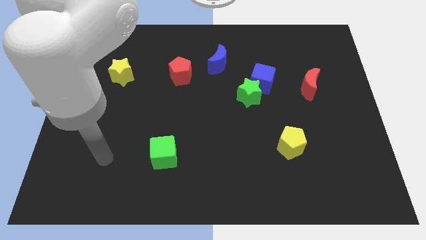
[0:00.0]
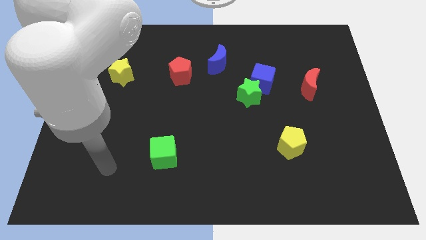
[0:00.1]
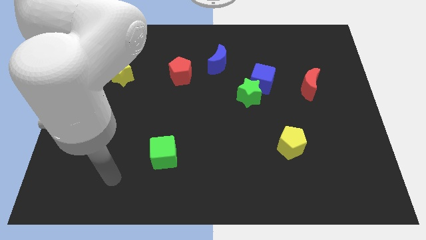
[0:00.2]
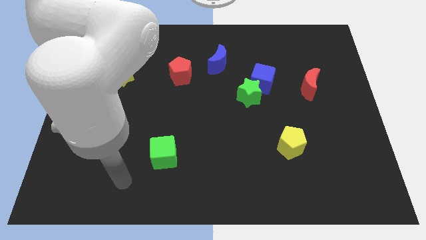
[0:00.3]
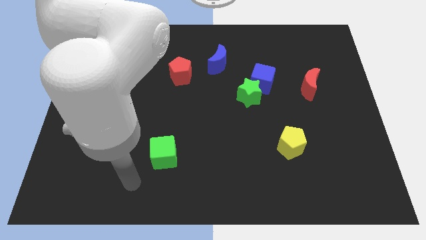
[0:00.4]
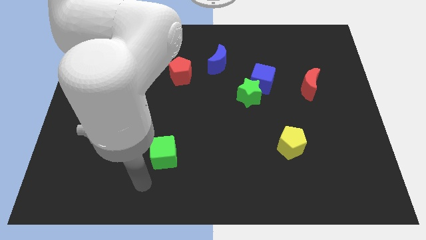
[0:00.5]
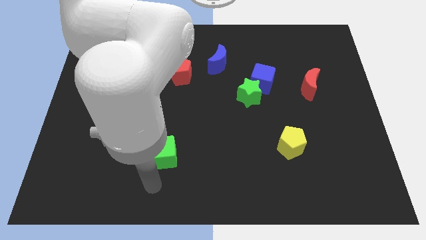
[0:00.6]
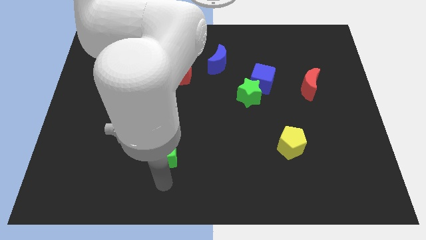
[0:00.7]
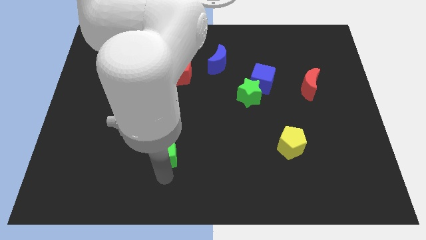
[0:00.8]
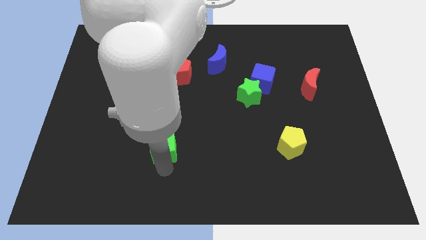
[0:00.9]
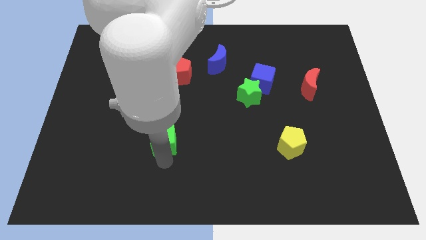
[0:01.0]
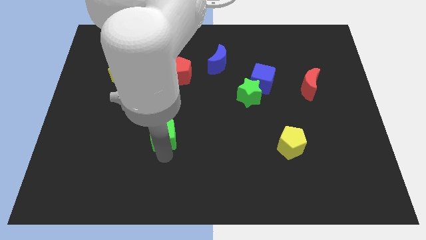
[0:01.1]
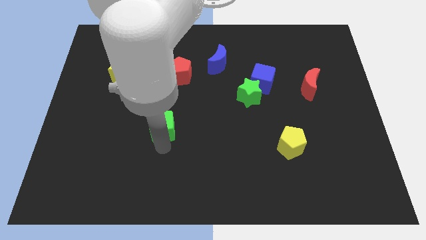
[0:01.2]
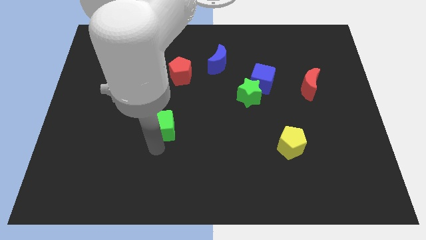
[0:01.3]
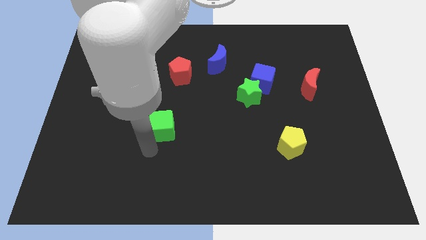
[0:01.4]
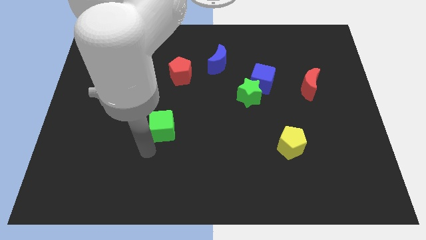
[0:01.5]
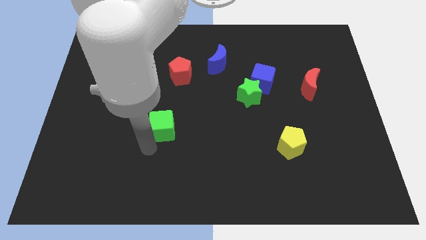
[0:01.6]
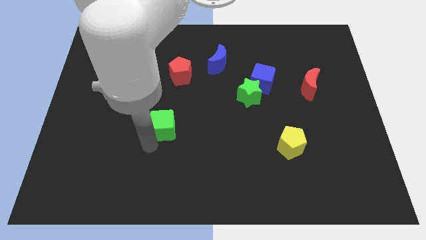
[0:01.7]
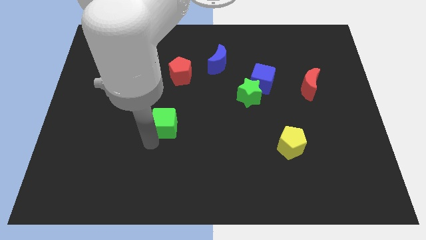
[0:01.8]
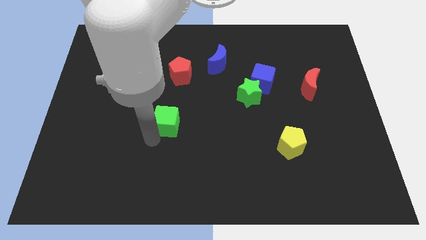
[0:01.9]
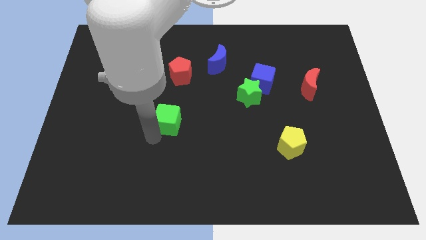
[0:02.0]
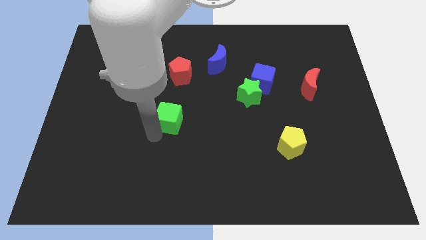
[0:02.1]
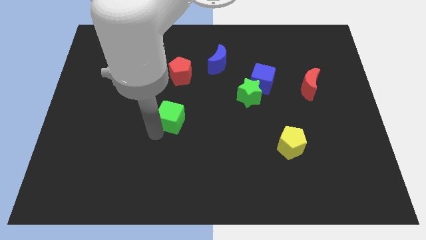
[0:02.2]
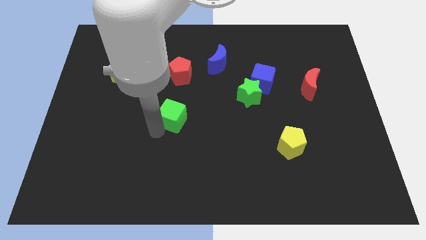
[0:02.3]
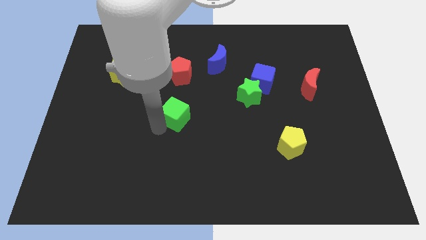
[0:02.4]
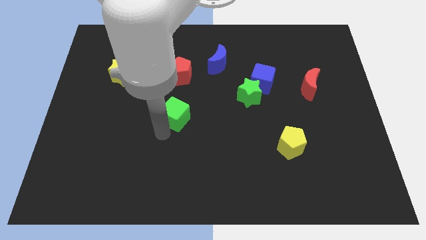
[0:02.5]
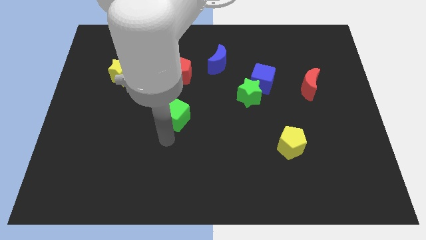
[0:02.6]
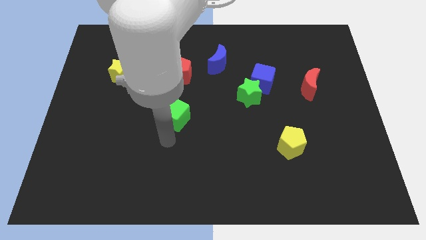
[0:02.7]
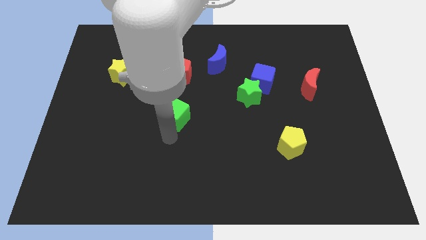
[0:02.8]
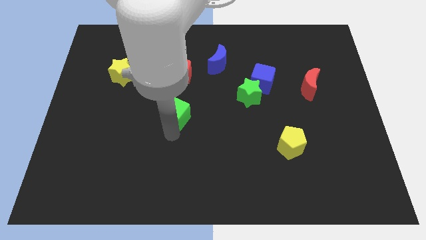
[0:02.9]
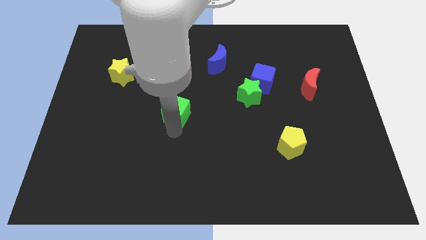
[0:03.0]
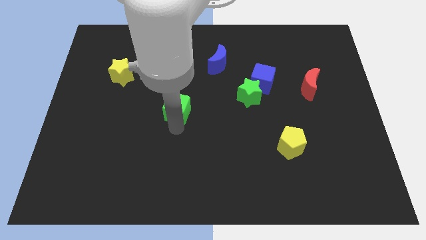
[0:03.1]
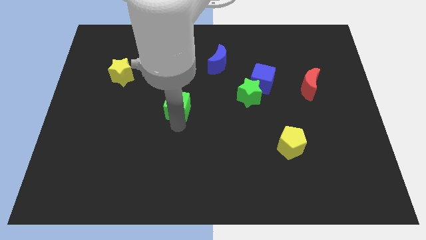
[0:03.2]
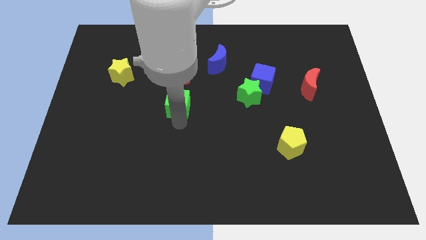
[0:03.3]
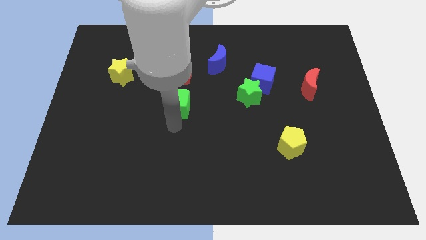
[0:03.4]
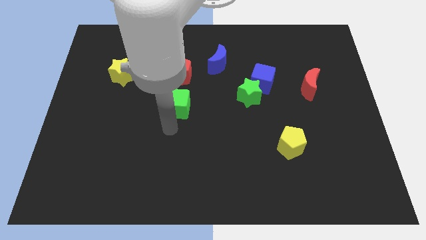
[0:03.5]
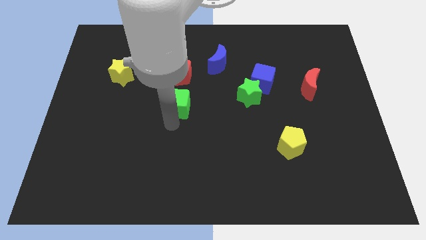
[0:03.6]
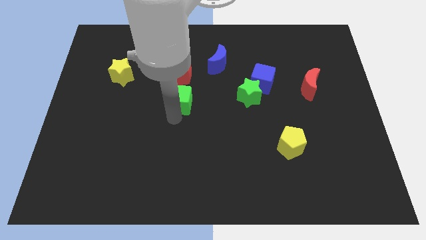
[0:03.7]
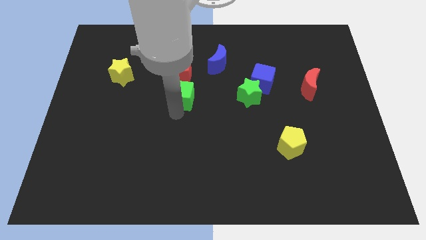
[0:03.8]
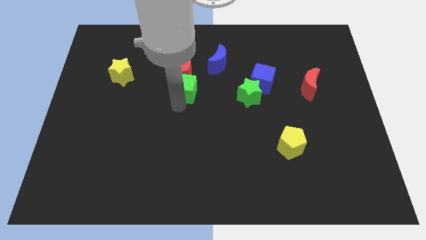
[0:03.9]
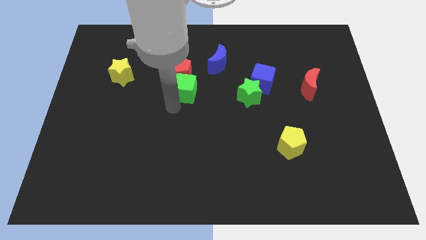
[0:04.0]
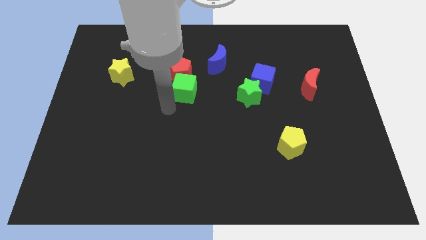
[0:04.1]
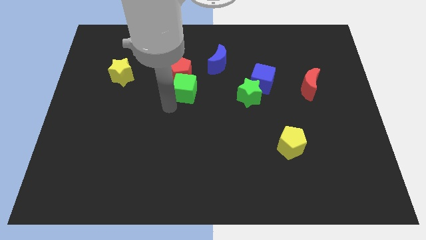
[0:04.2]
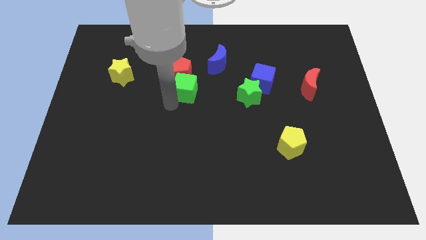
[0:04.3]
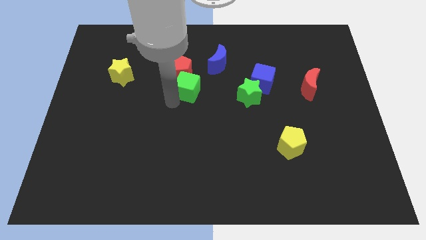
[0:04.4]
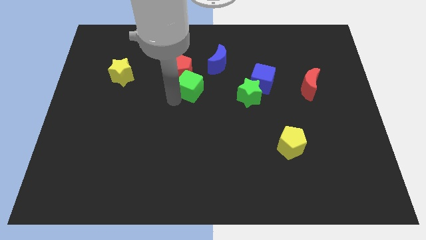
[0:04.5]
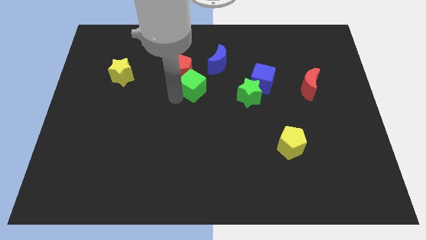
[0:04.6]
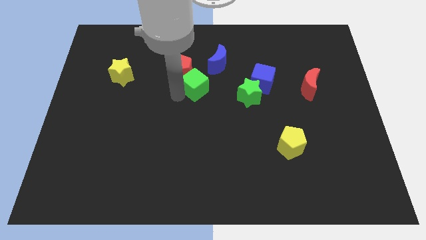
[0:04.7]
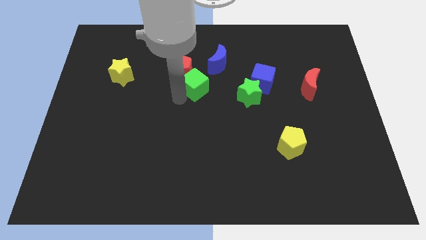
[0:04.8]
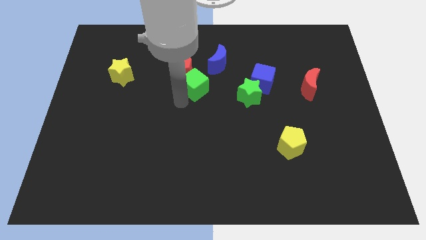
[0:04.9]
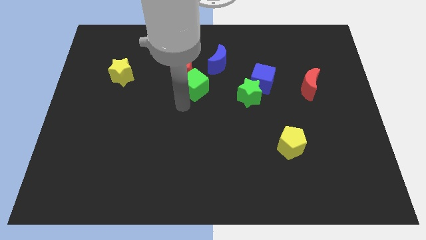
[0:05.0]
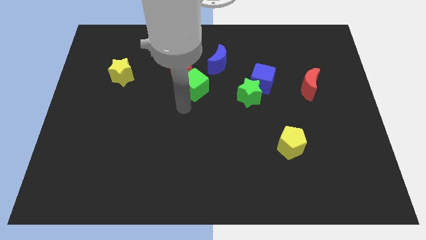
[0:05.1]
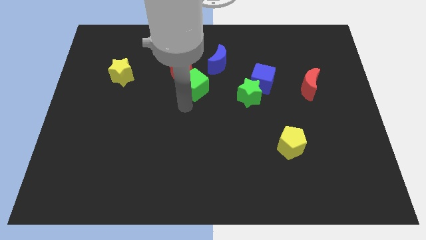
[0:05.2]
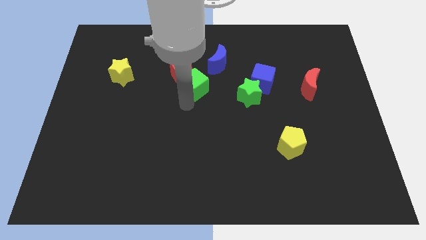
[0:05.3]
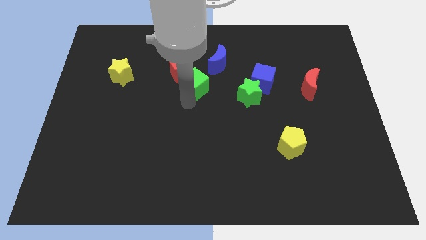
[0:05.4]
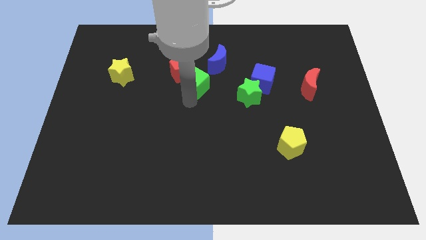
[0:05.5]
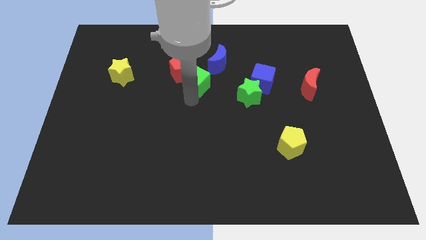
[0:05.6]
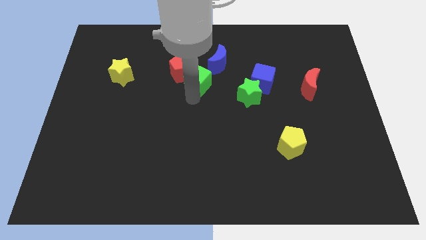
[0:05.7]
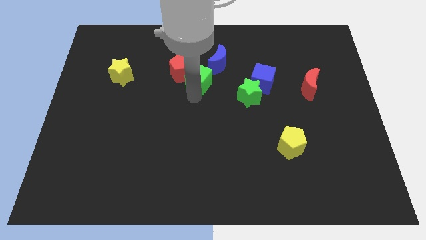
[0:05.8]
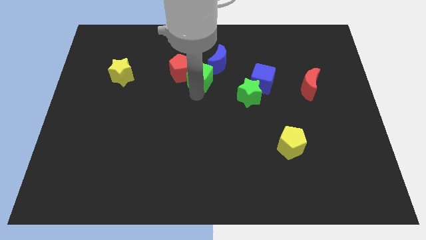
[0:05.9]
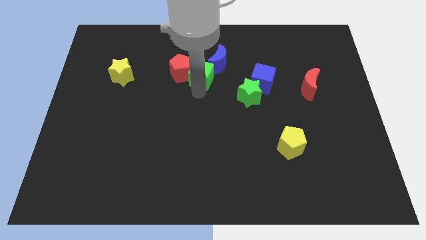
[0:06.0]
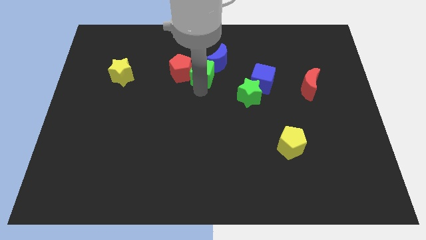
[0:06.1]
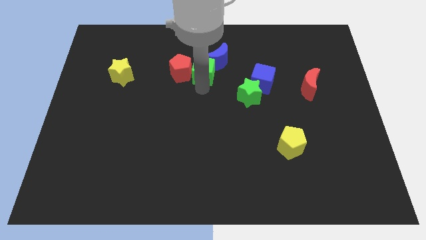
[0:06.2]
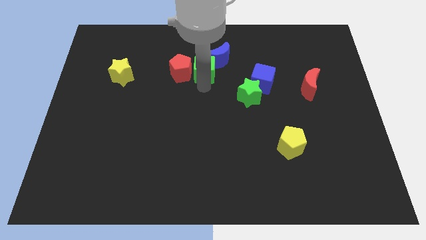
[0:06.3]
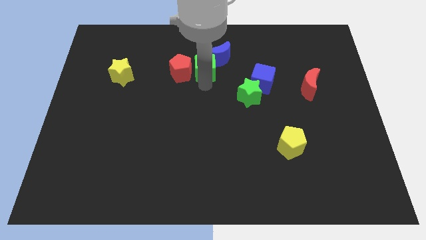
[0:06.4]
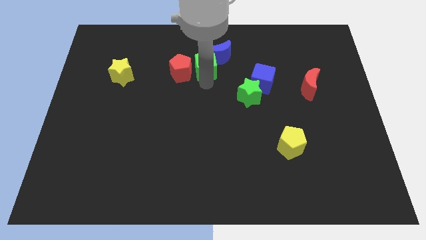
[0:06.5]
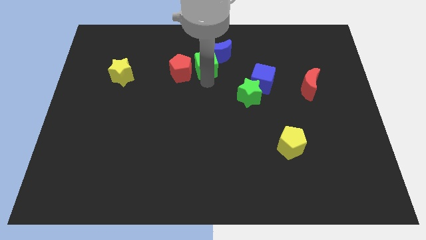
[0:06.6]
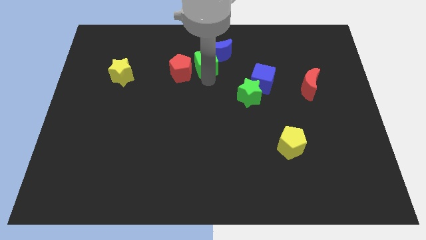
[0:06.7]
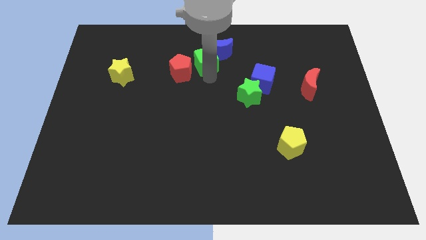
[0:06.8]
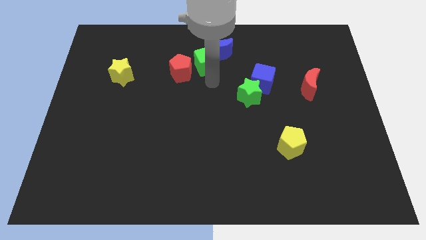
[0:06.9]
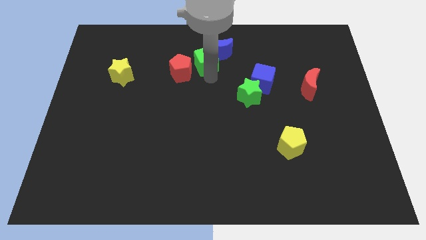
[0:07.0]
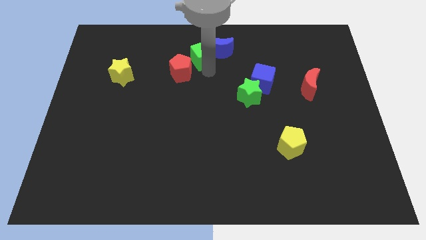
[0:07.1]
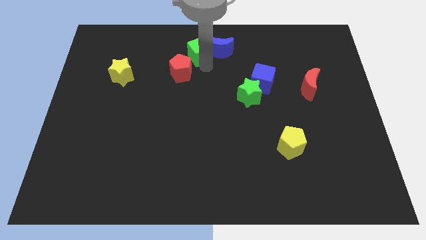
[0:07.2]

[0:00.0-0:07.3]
slide the green cube to the top

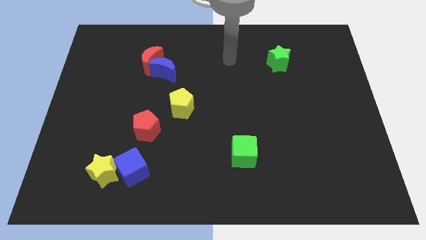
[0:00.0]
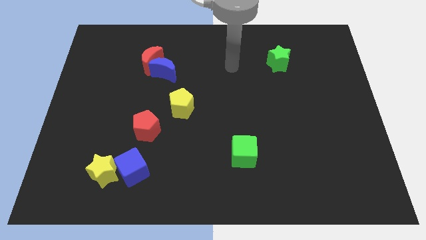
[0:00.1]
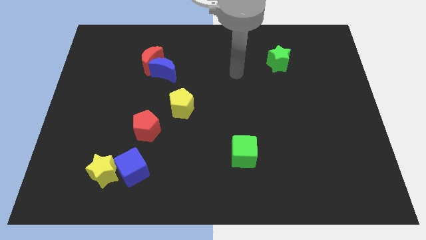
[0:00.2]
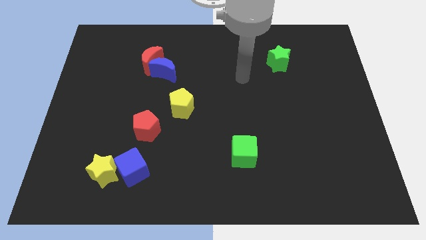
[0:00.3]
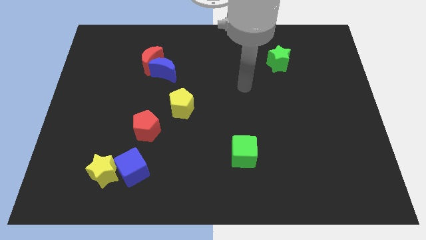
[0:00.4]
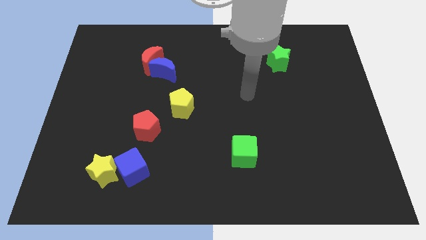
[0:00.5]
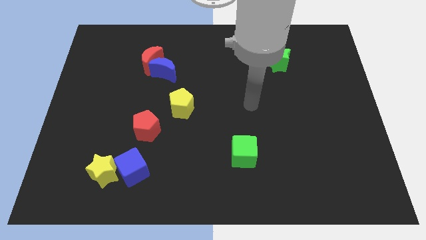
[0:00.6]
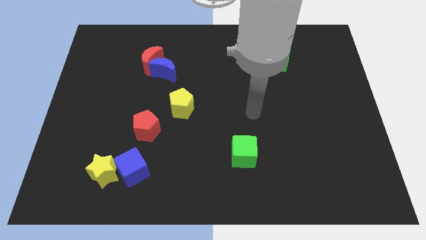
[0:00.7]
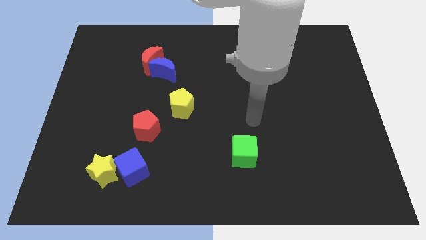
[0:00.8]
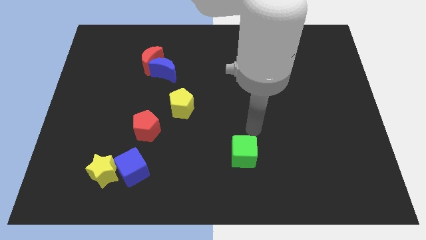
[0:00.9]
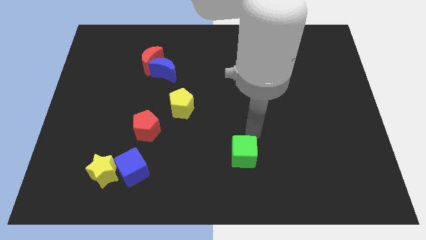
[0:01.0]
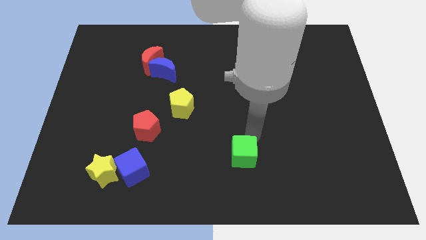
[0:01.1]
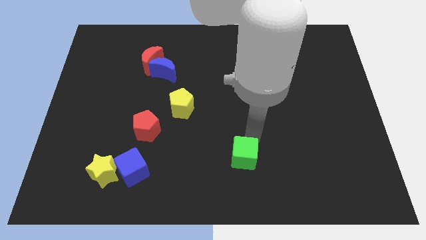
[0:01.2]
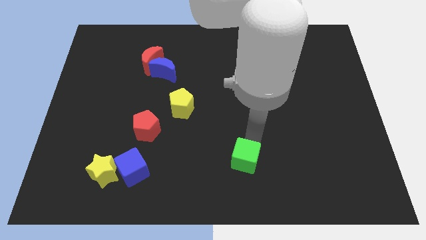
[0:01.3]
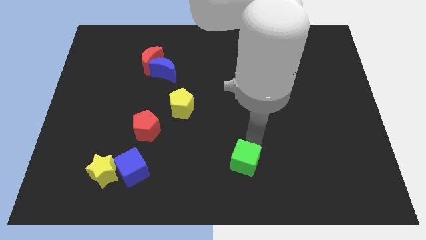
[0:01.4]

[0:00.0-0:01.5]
push the green cube to the bottom side
